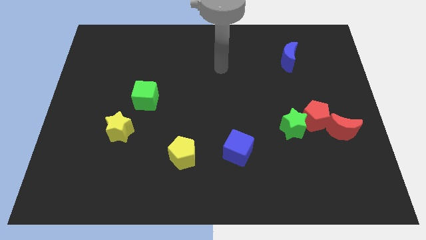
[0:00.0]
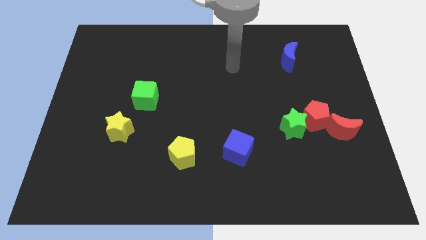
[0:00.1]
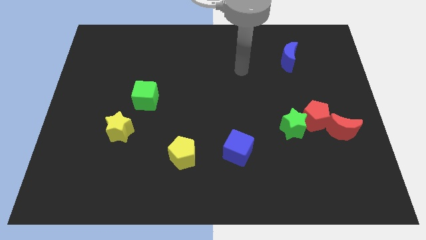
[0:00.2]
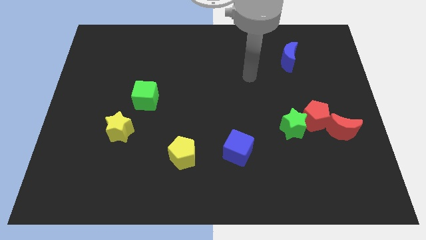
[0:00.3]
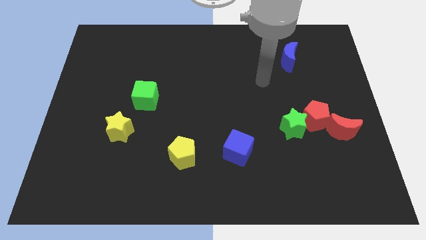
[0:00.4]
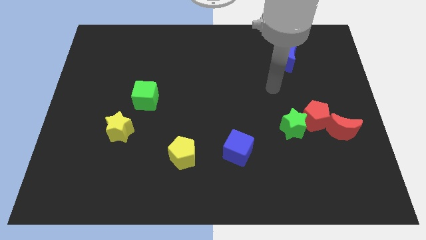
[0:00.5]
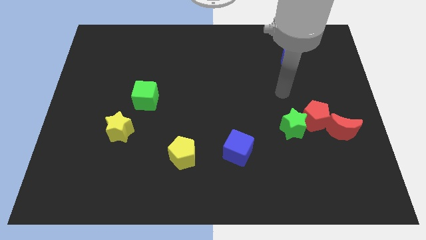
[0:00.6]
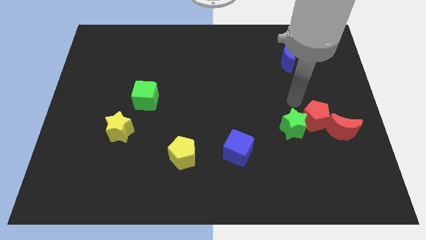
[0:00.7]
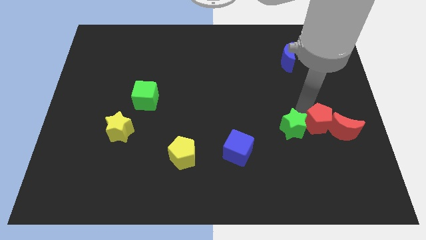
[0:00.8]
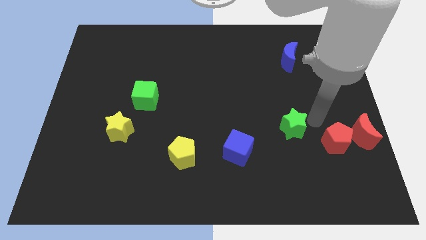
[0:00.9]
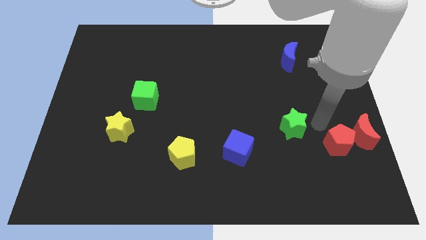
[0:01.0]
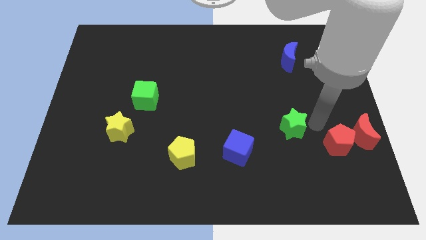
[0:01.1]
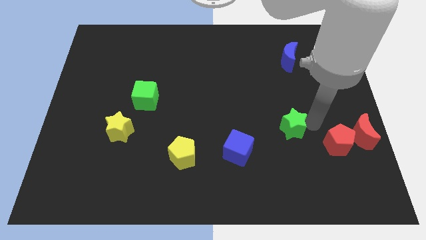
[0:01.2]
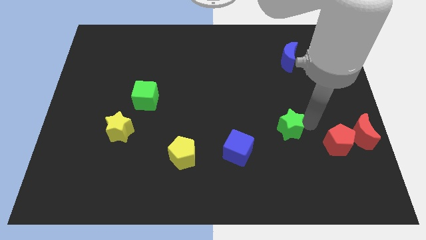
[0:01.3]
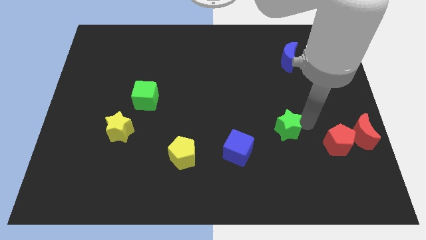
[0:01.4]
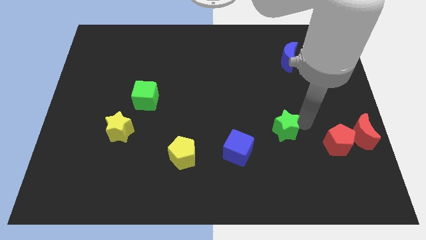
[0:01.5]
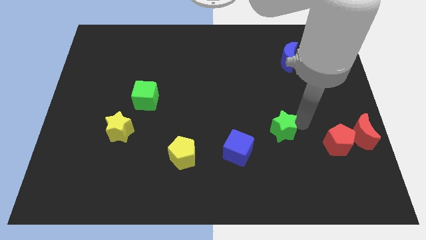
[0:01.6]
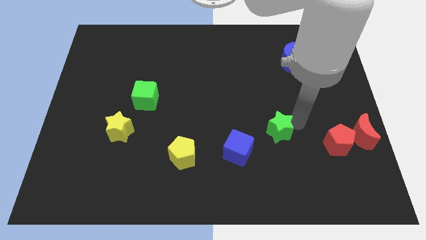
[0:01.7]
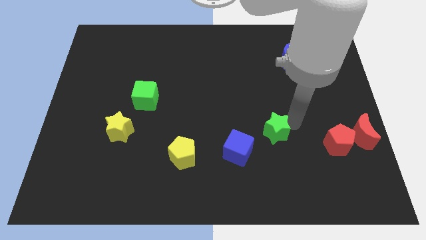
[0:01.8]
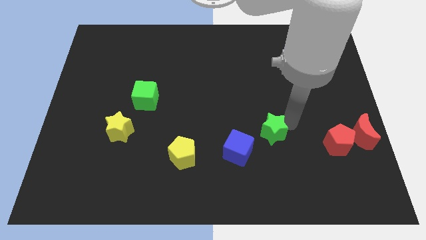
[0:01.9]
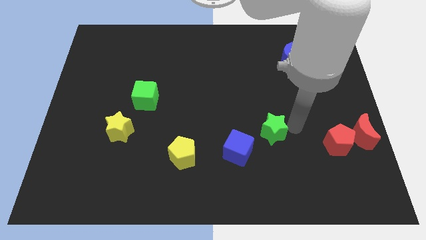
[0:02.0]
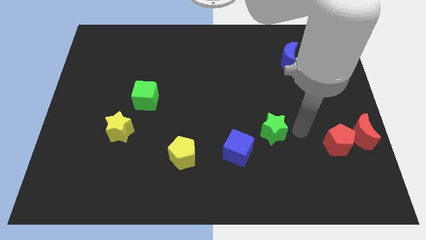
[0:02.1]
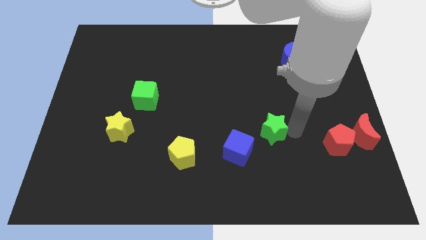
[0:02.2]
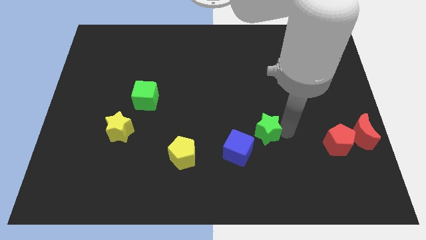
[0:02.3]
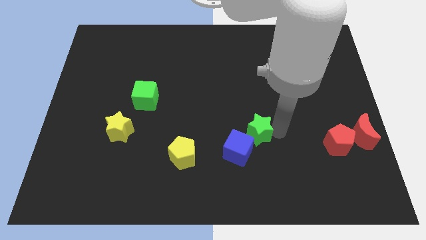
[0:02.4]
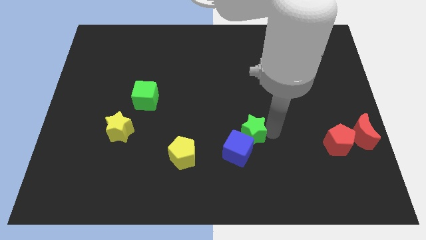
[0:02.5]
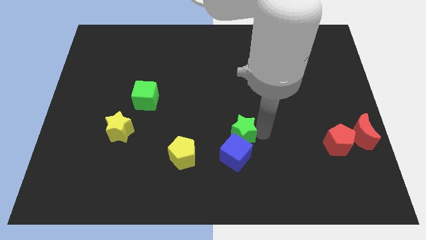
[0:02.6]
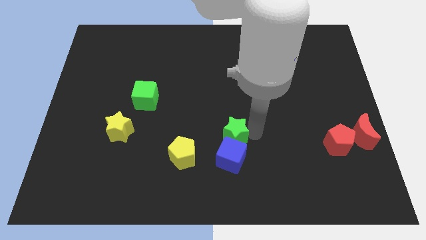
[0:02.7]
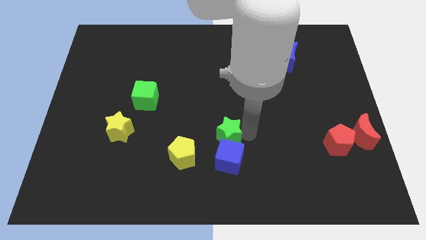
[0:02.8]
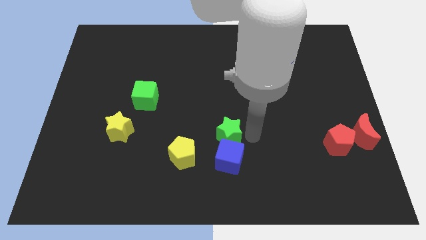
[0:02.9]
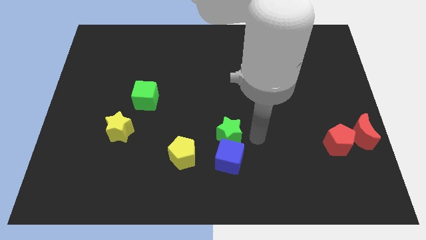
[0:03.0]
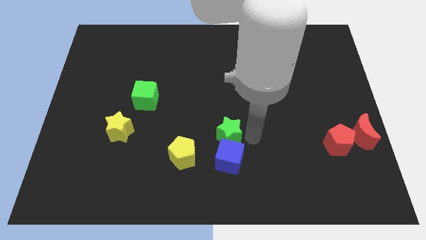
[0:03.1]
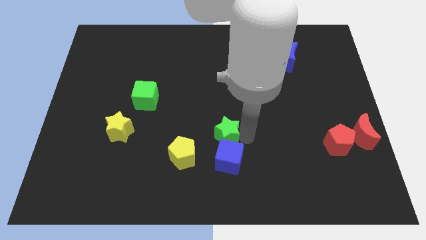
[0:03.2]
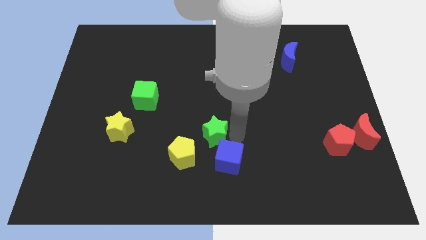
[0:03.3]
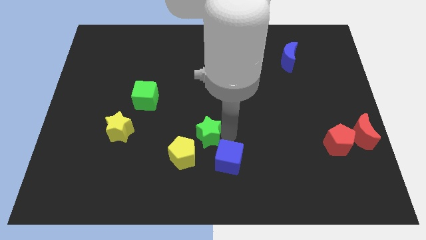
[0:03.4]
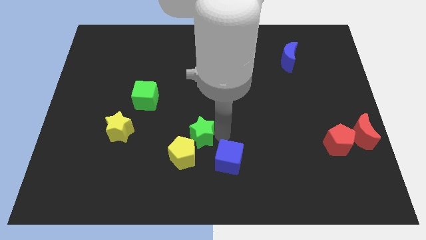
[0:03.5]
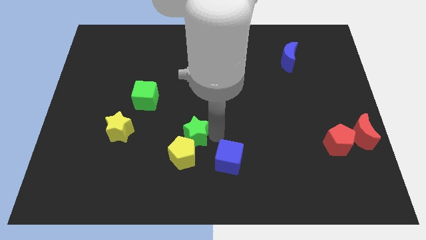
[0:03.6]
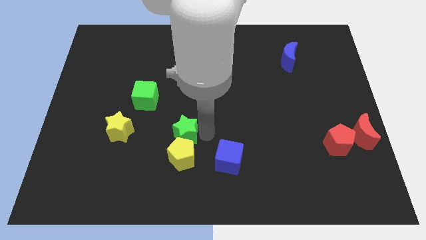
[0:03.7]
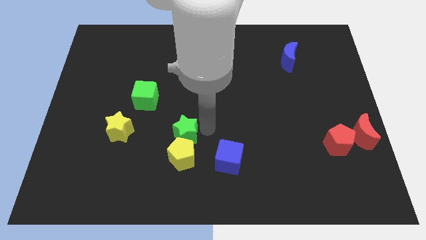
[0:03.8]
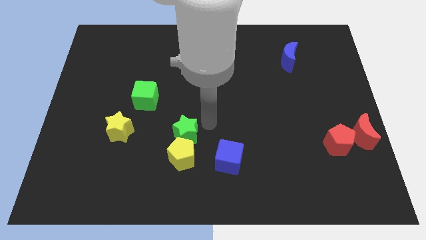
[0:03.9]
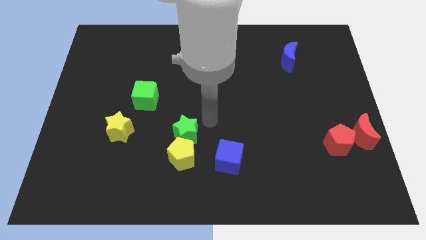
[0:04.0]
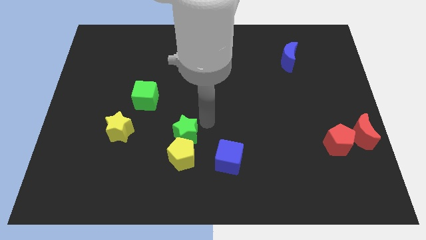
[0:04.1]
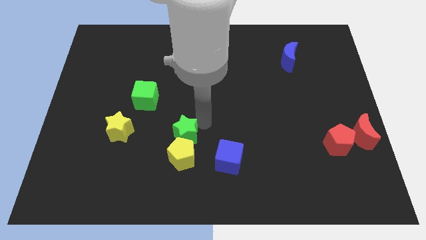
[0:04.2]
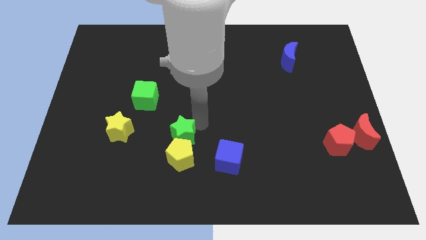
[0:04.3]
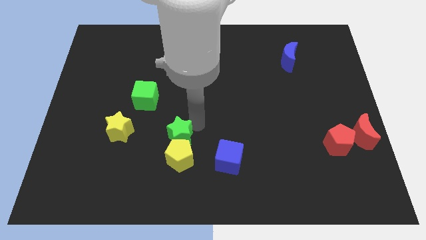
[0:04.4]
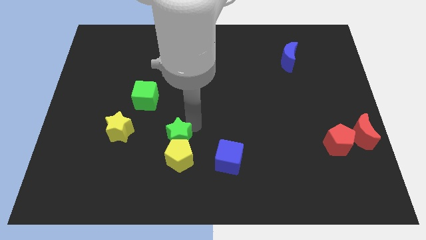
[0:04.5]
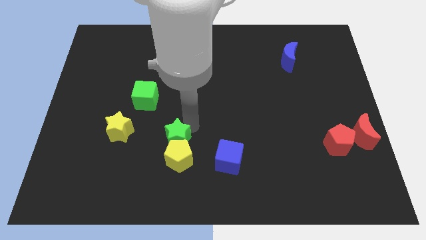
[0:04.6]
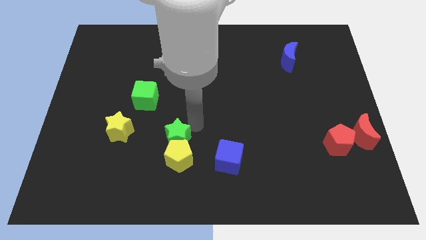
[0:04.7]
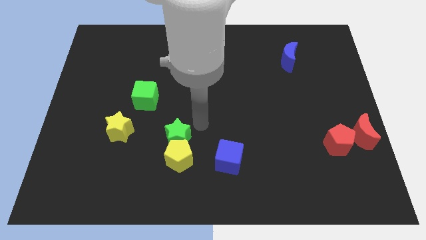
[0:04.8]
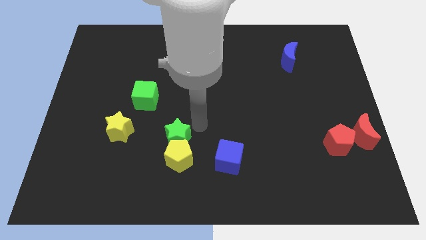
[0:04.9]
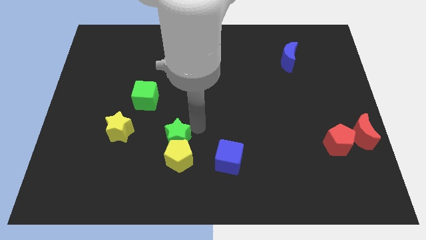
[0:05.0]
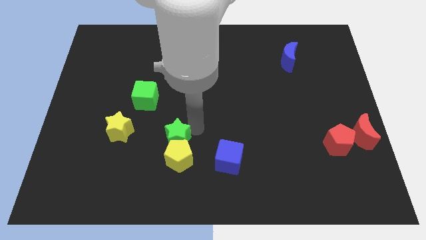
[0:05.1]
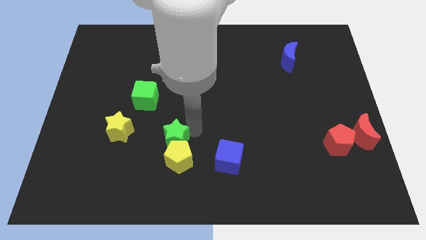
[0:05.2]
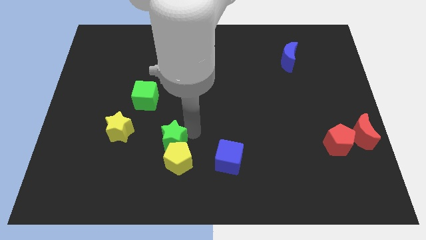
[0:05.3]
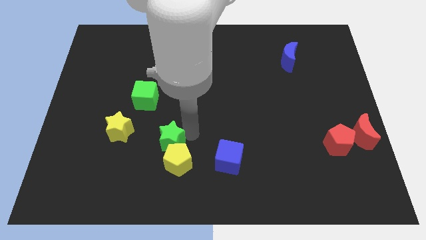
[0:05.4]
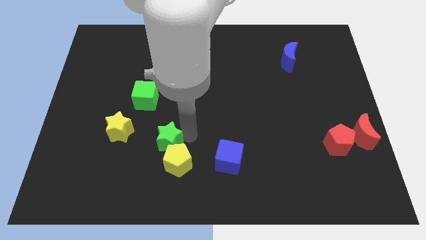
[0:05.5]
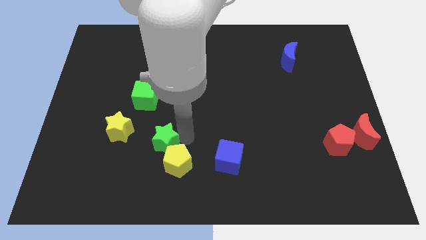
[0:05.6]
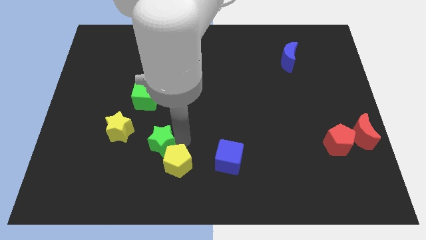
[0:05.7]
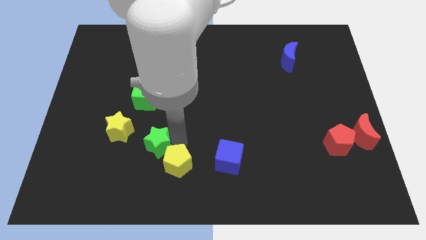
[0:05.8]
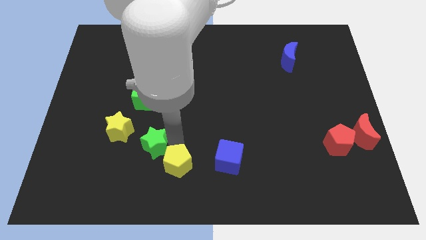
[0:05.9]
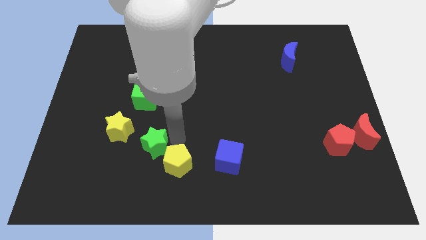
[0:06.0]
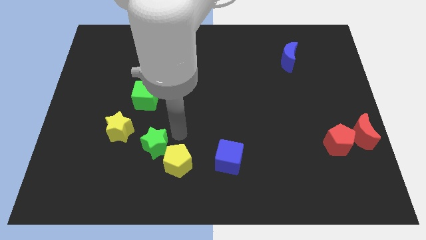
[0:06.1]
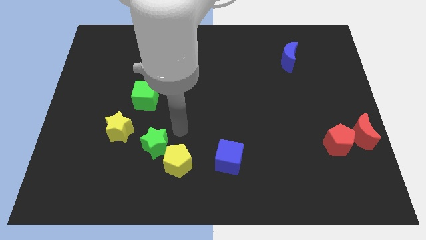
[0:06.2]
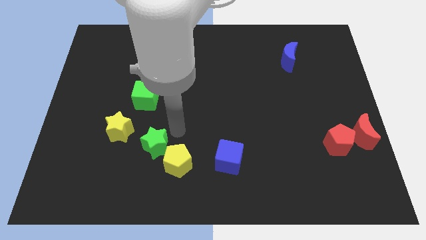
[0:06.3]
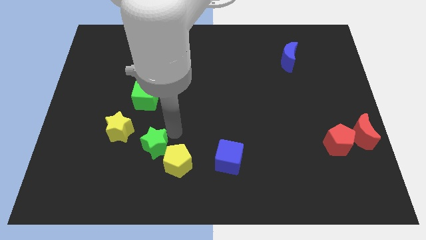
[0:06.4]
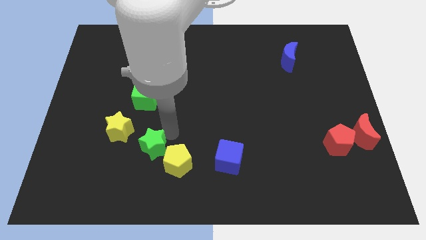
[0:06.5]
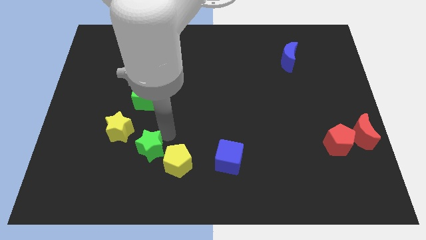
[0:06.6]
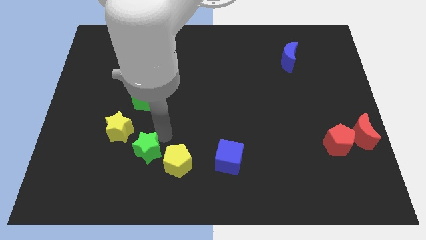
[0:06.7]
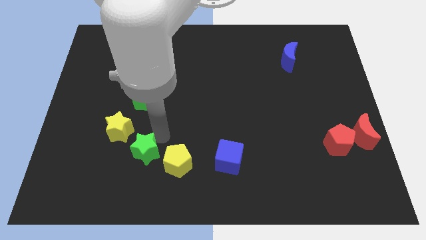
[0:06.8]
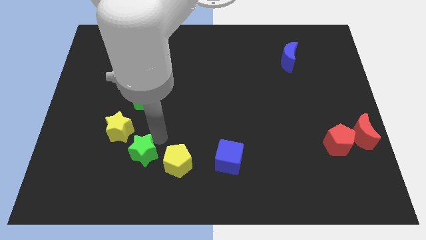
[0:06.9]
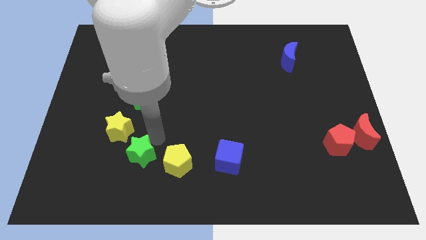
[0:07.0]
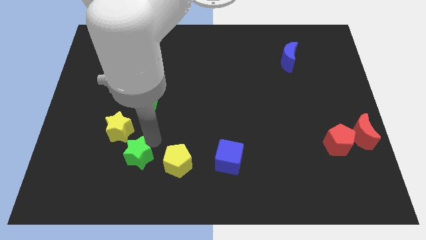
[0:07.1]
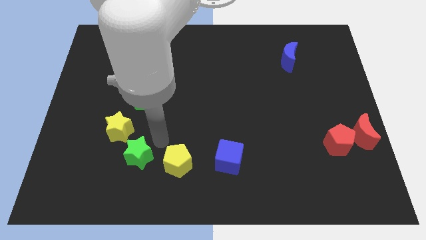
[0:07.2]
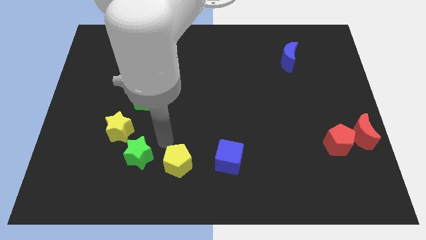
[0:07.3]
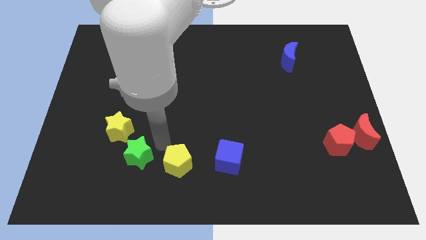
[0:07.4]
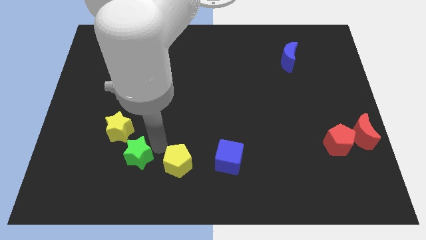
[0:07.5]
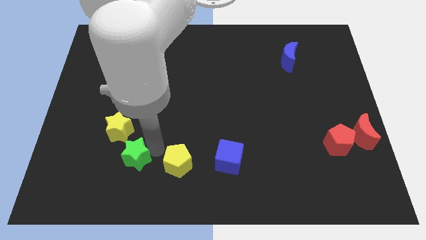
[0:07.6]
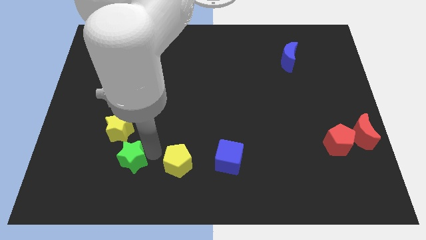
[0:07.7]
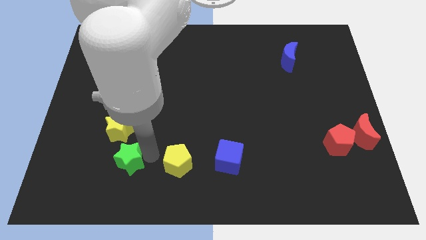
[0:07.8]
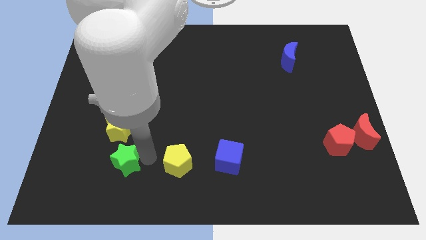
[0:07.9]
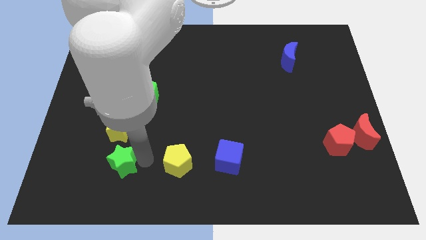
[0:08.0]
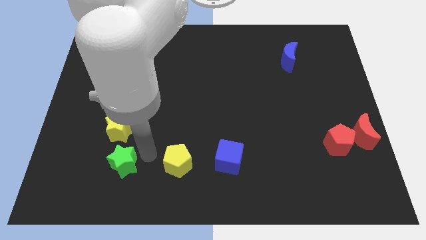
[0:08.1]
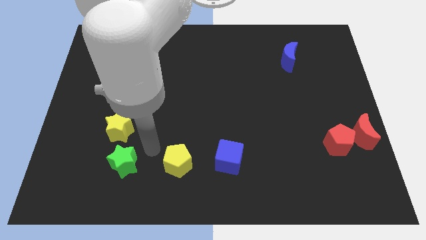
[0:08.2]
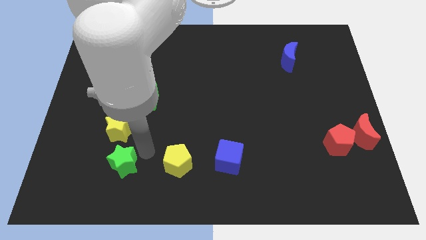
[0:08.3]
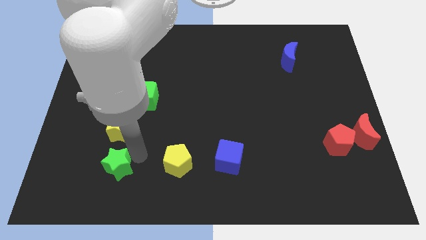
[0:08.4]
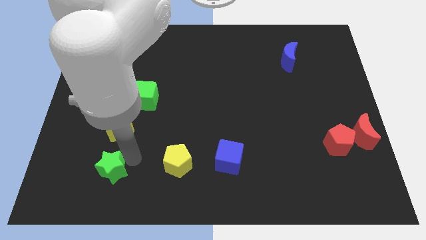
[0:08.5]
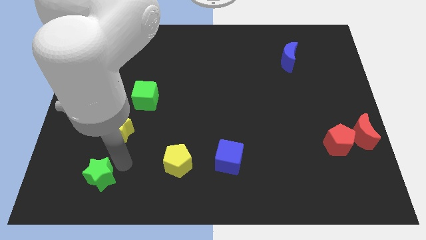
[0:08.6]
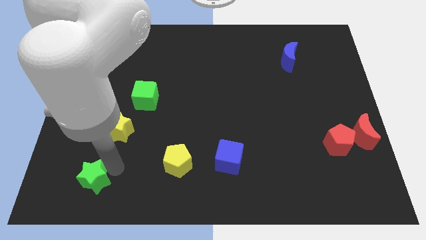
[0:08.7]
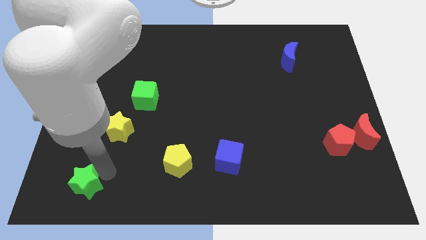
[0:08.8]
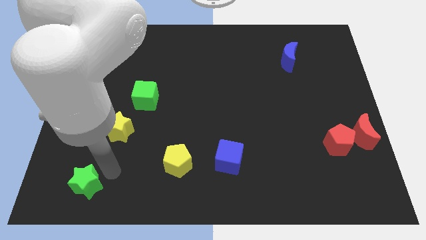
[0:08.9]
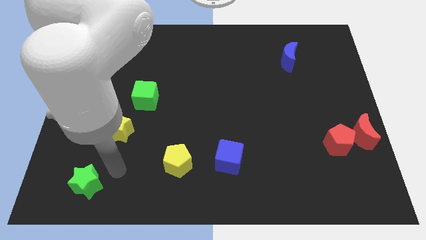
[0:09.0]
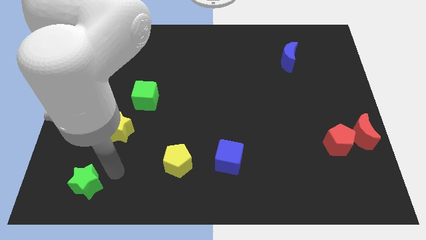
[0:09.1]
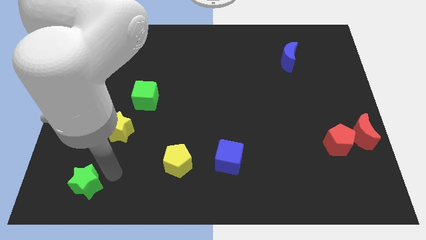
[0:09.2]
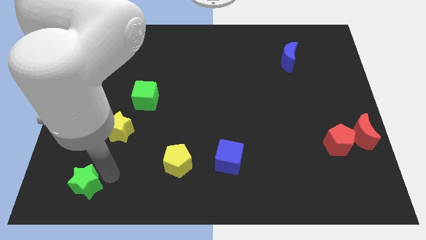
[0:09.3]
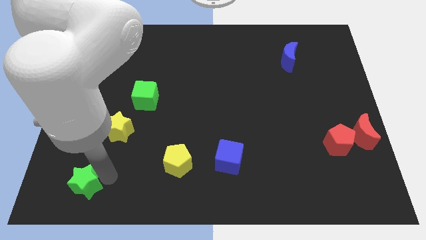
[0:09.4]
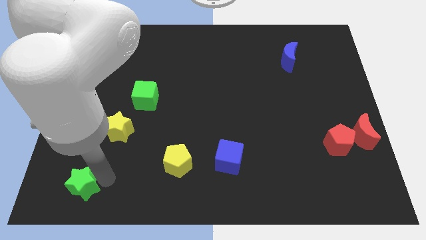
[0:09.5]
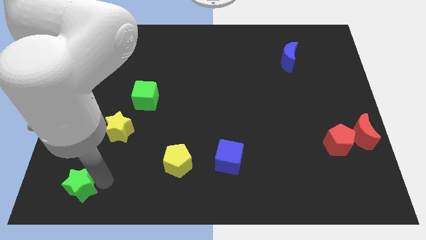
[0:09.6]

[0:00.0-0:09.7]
slide the green star to the bottom left corner
